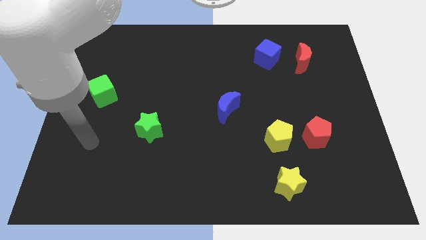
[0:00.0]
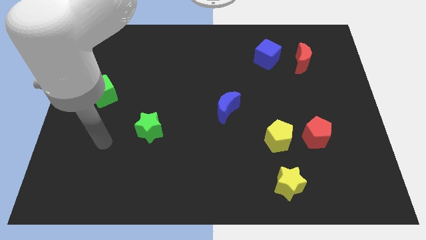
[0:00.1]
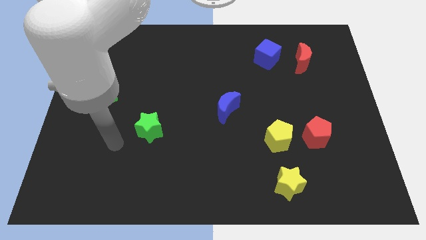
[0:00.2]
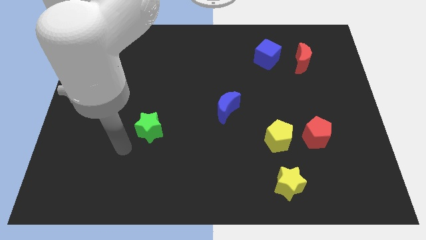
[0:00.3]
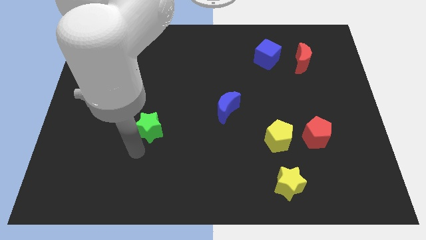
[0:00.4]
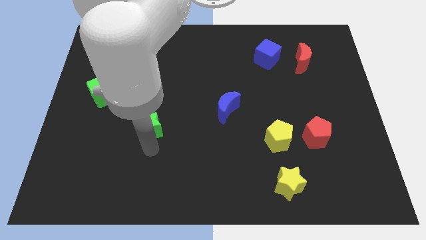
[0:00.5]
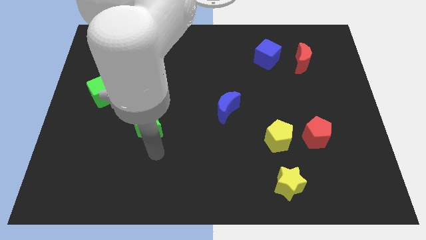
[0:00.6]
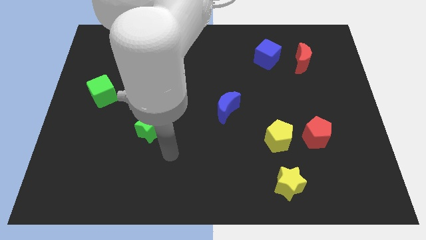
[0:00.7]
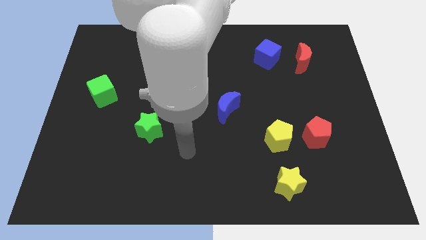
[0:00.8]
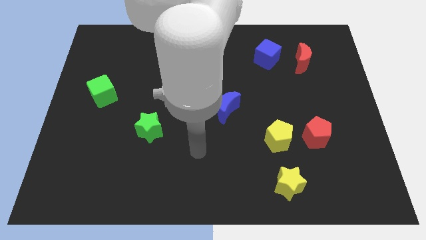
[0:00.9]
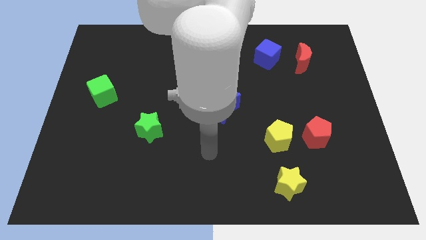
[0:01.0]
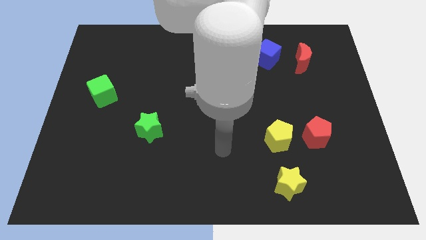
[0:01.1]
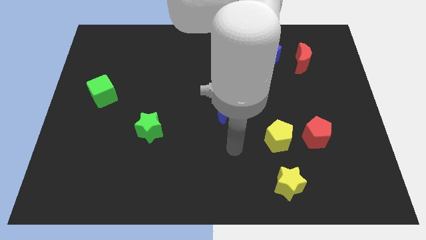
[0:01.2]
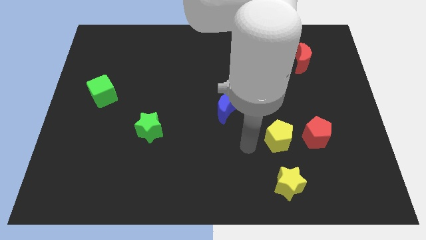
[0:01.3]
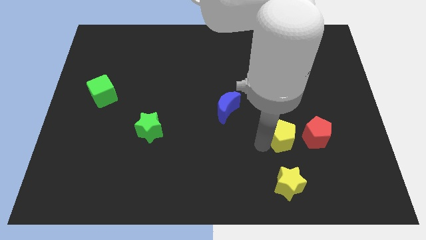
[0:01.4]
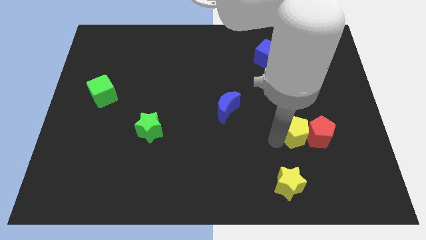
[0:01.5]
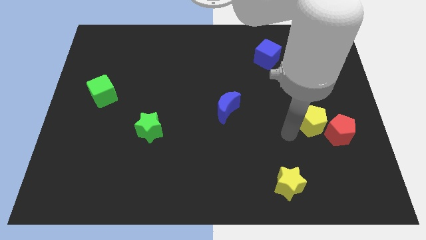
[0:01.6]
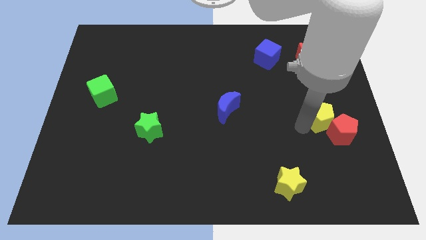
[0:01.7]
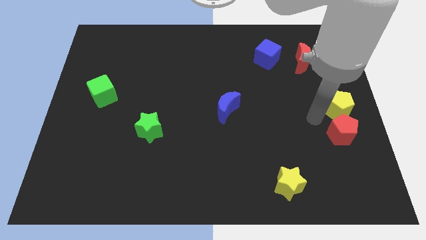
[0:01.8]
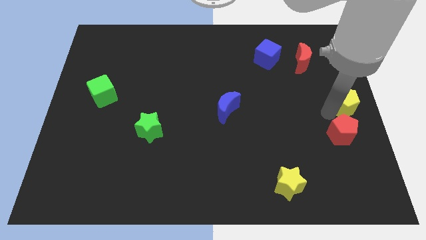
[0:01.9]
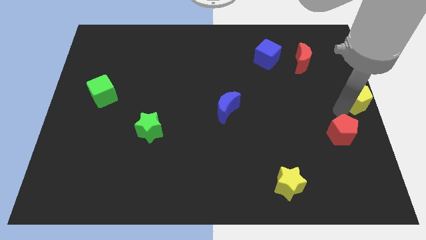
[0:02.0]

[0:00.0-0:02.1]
move the red pentagon away from the yellow pentagon

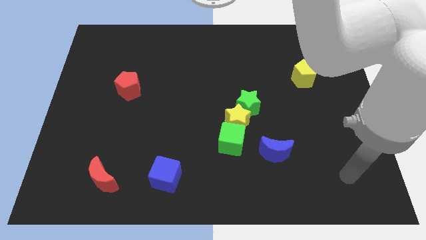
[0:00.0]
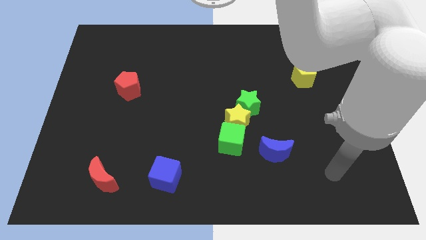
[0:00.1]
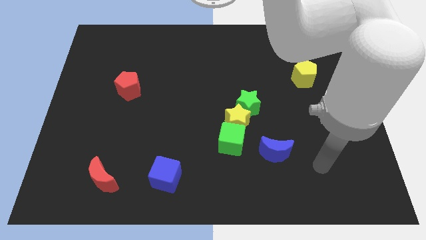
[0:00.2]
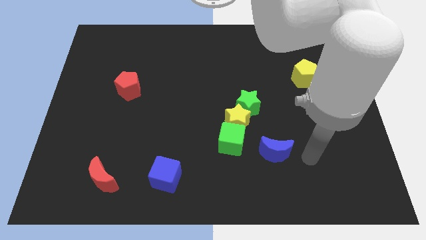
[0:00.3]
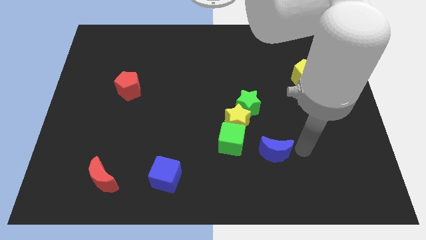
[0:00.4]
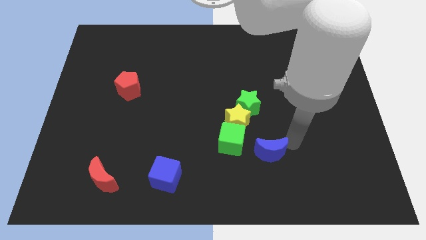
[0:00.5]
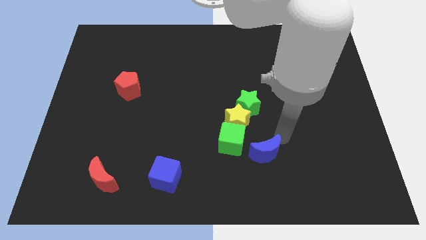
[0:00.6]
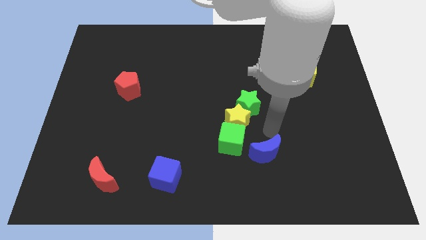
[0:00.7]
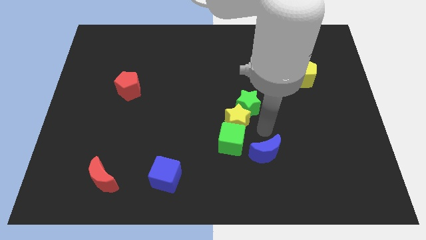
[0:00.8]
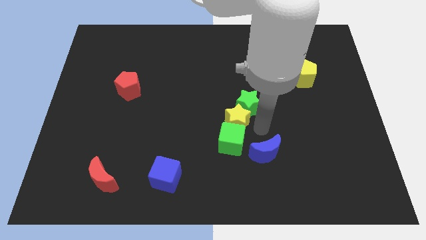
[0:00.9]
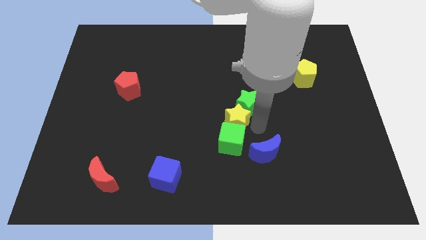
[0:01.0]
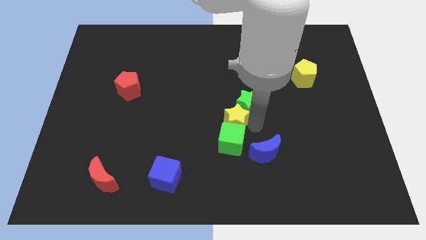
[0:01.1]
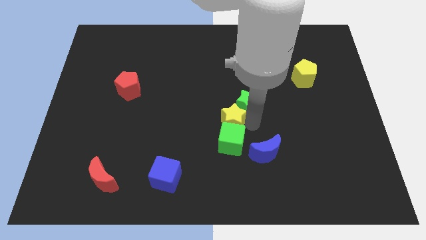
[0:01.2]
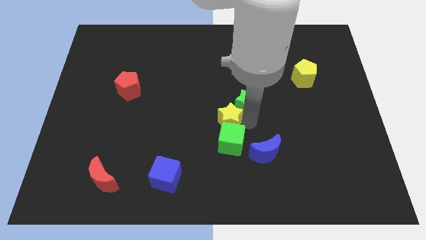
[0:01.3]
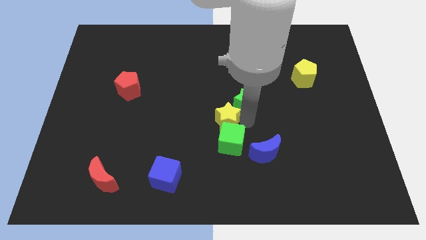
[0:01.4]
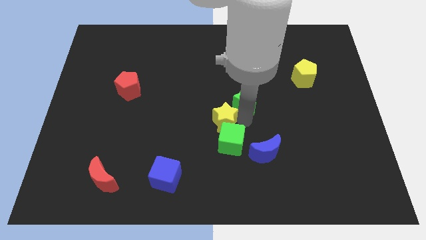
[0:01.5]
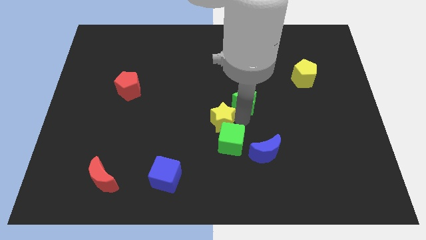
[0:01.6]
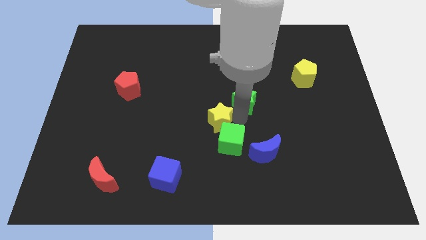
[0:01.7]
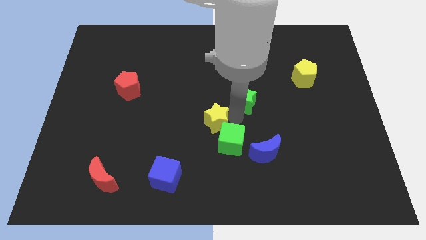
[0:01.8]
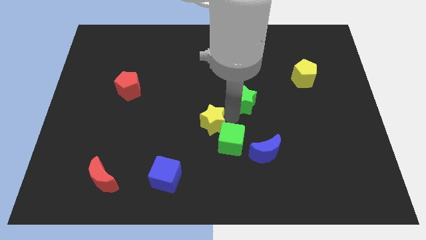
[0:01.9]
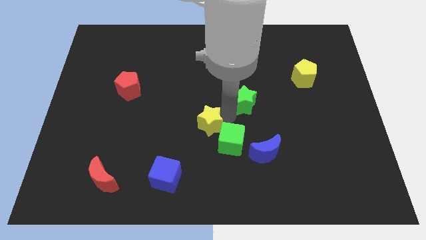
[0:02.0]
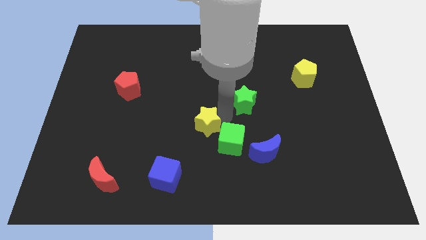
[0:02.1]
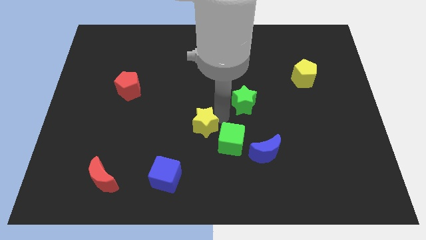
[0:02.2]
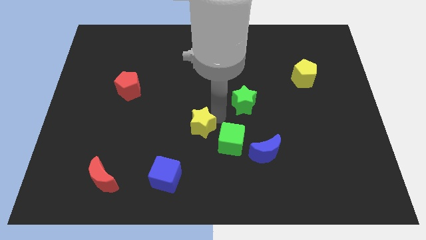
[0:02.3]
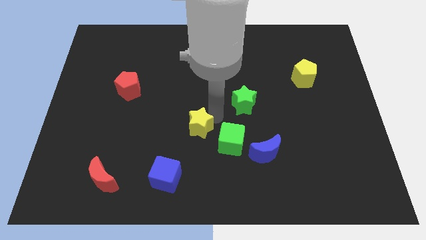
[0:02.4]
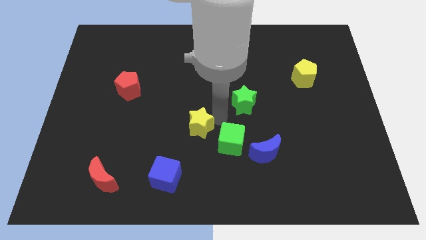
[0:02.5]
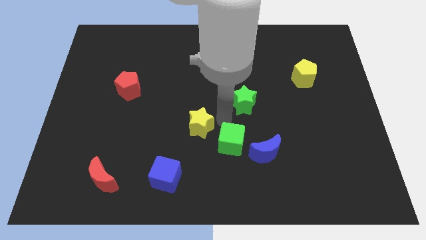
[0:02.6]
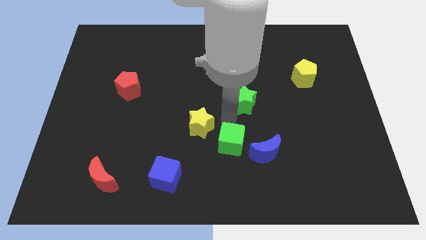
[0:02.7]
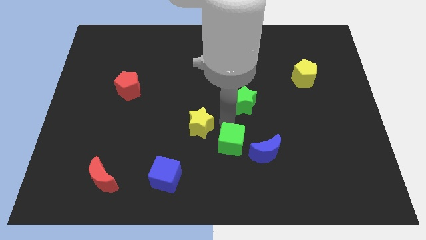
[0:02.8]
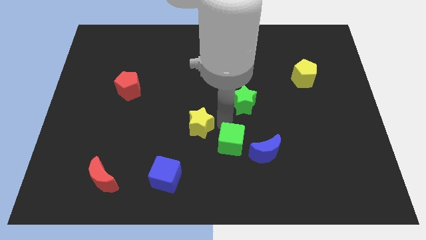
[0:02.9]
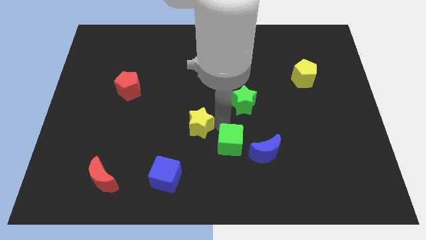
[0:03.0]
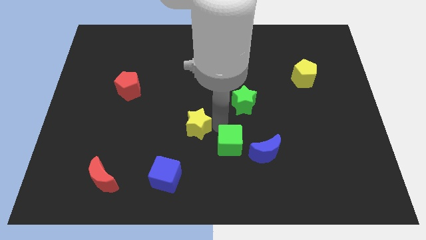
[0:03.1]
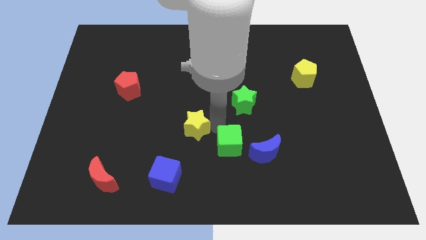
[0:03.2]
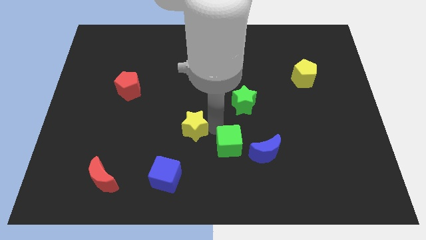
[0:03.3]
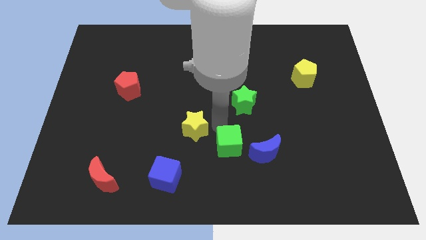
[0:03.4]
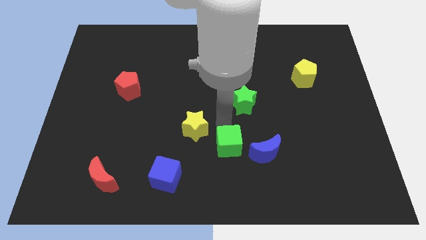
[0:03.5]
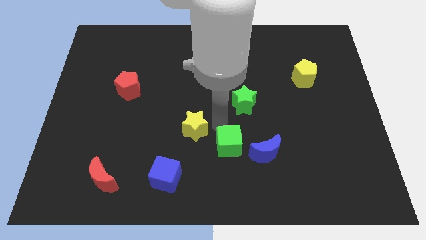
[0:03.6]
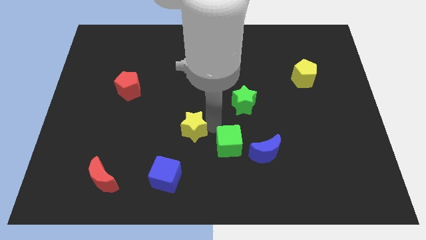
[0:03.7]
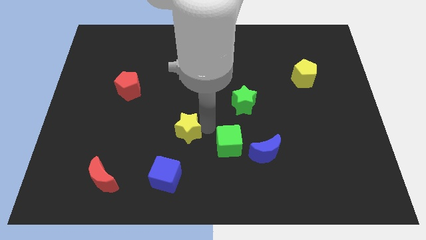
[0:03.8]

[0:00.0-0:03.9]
move the yellow star away from the green cube and green star

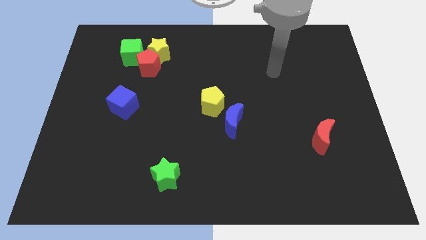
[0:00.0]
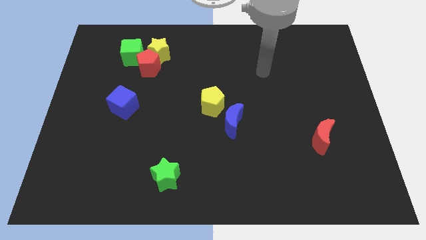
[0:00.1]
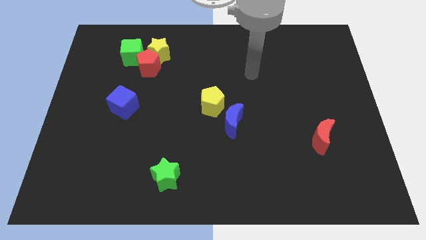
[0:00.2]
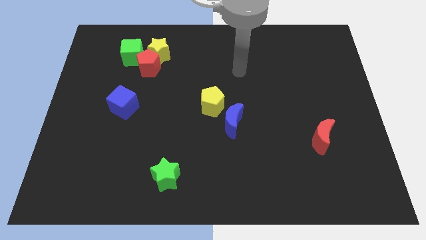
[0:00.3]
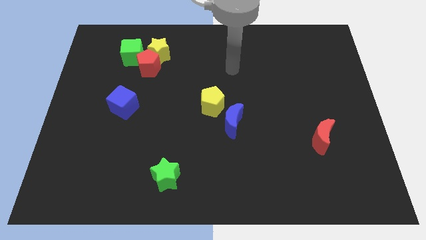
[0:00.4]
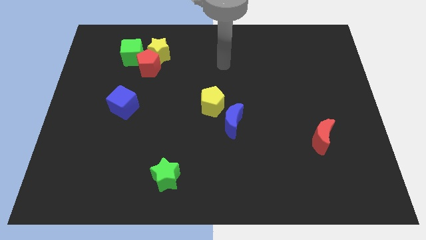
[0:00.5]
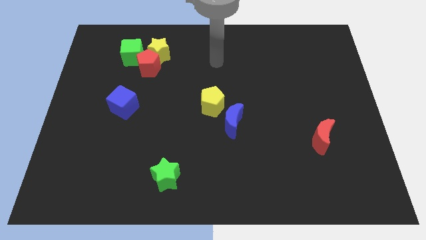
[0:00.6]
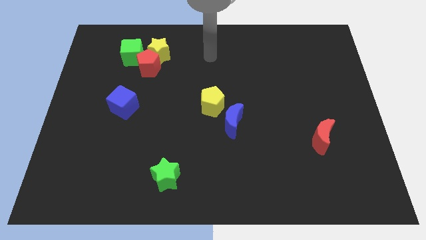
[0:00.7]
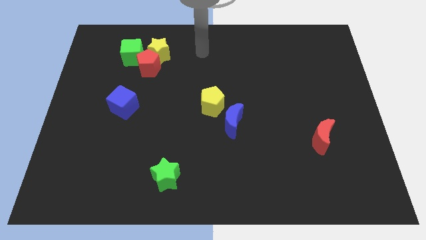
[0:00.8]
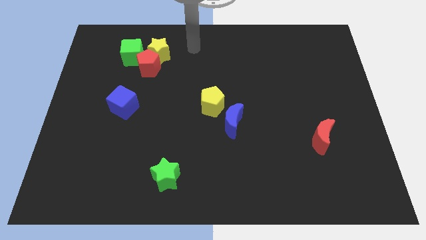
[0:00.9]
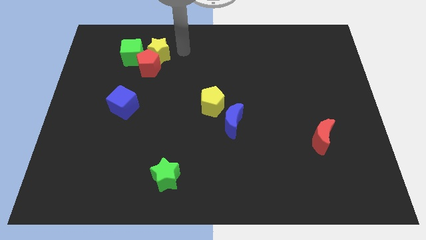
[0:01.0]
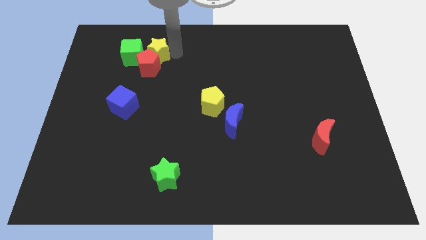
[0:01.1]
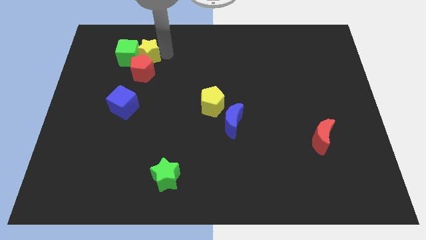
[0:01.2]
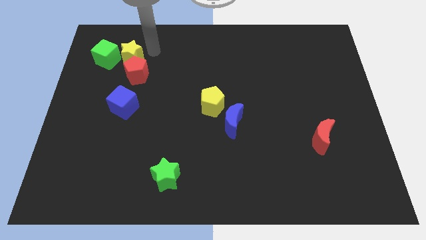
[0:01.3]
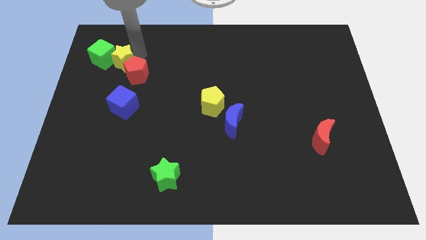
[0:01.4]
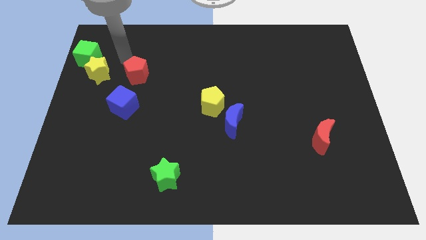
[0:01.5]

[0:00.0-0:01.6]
separate the red pentagon from the yellow star and green cube

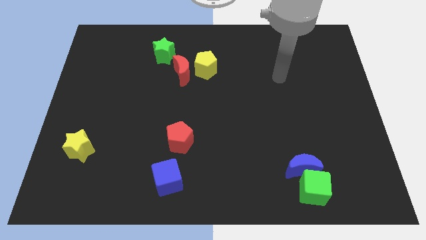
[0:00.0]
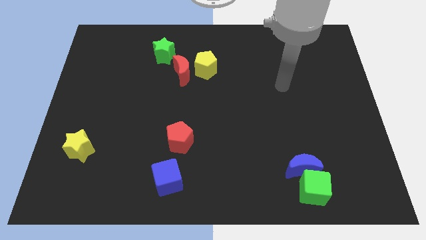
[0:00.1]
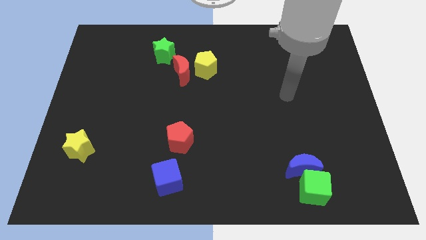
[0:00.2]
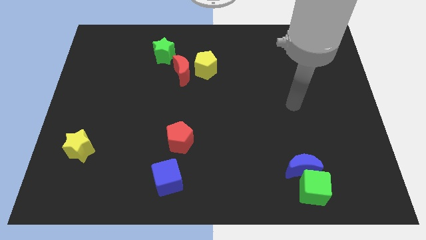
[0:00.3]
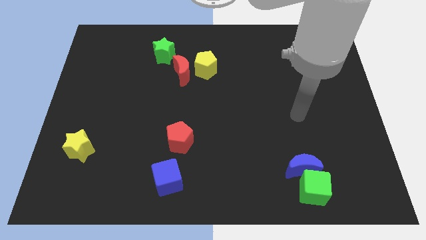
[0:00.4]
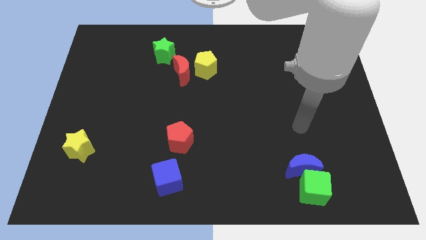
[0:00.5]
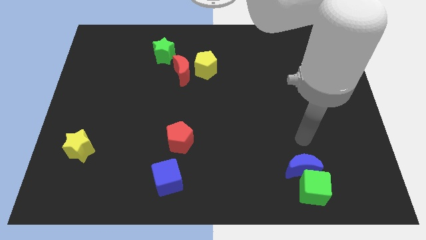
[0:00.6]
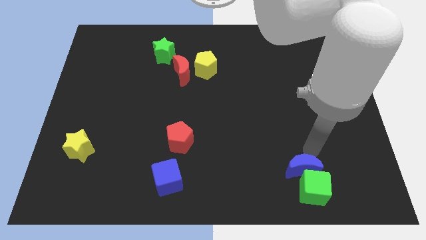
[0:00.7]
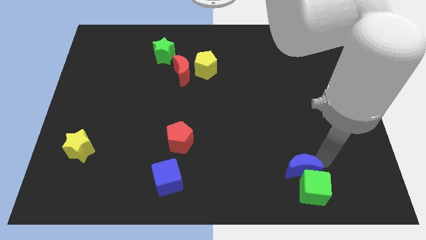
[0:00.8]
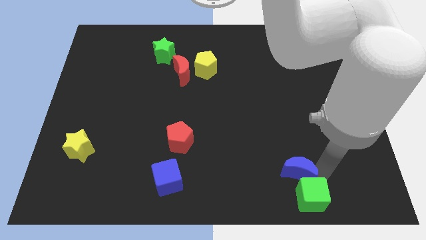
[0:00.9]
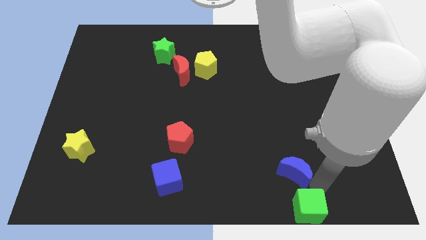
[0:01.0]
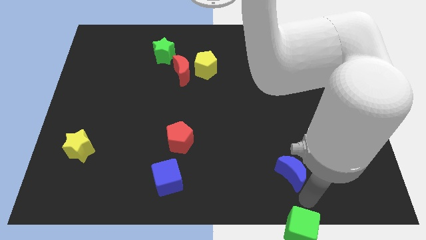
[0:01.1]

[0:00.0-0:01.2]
pull the blue moon apart from the green cube

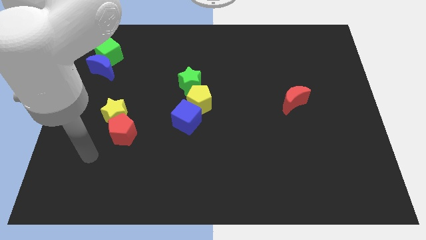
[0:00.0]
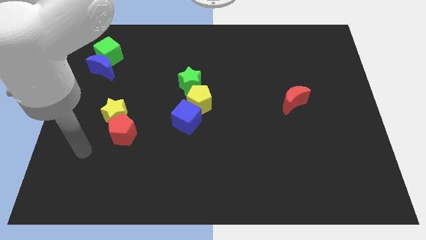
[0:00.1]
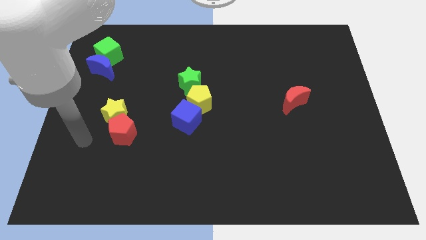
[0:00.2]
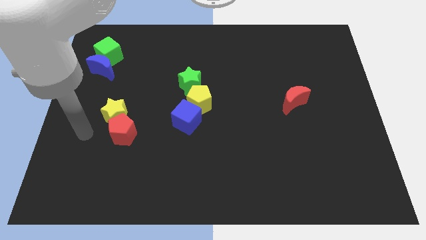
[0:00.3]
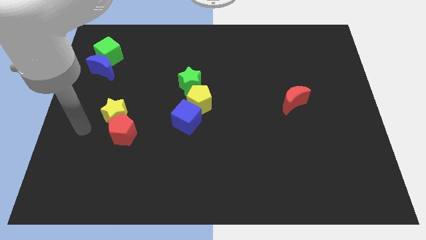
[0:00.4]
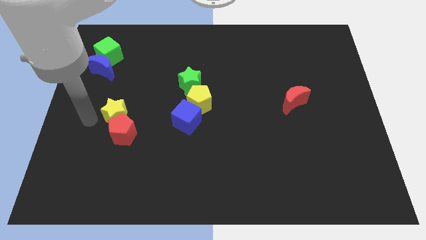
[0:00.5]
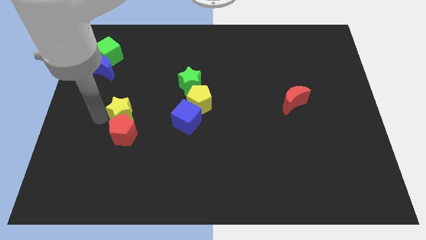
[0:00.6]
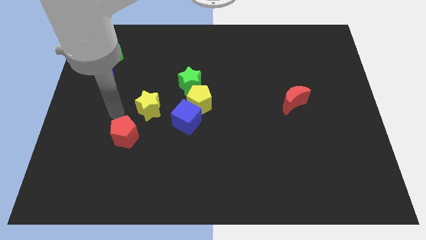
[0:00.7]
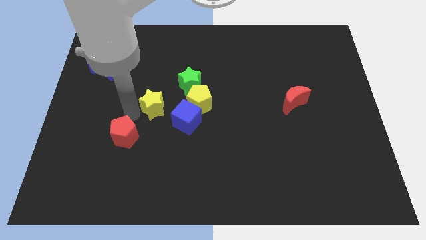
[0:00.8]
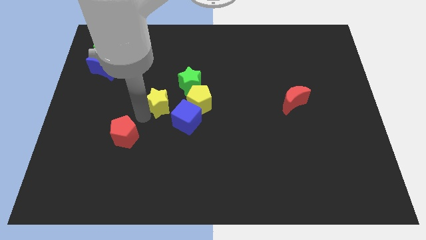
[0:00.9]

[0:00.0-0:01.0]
pull the red pentagon apart from the yellow star
